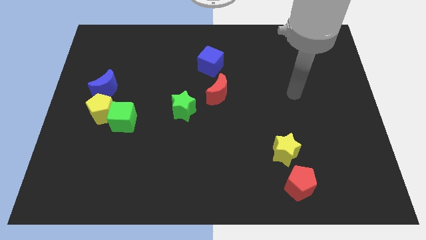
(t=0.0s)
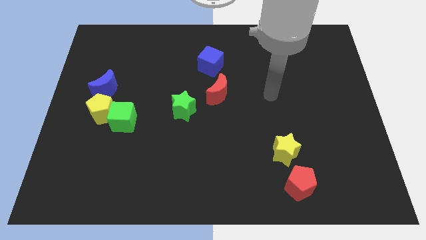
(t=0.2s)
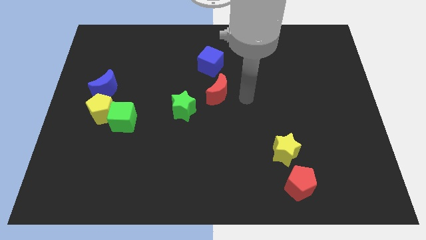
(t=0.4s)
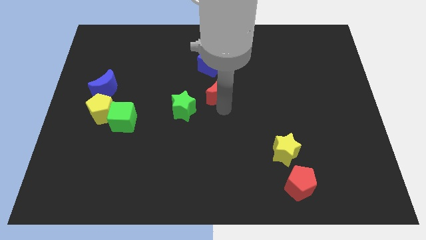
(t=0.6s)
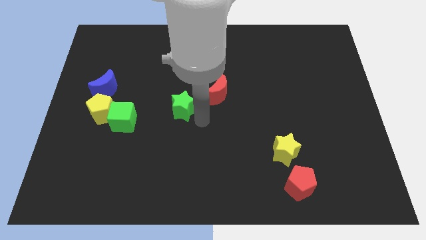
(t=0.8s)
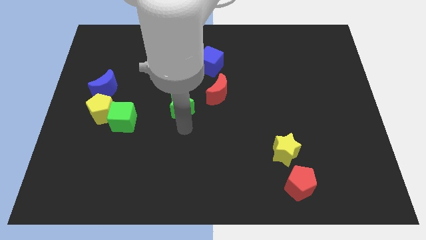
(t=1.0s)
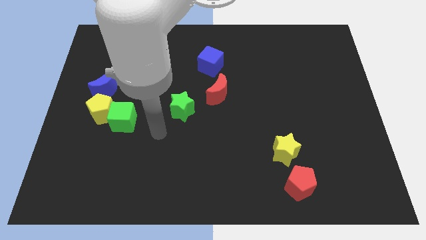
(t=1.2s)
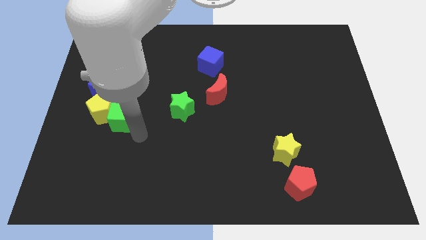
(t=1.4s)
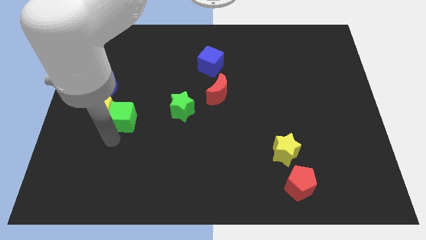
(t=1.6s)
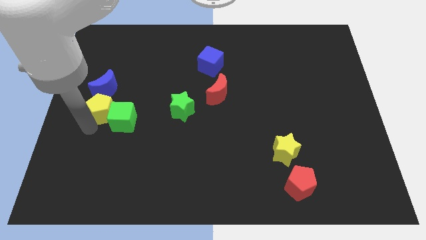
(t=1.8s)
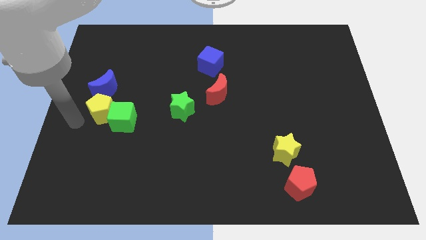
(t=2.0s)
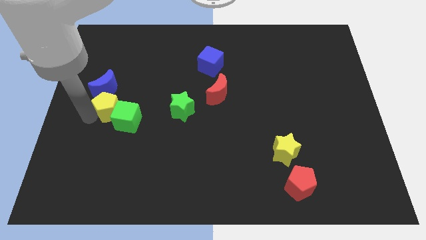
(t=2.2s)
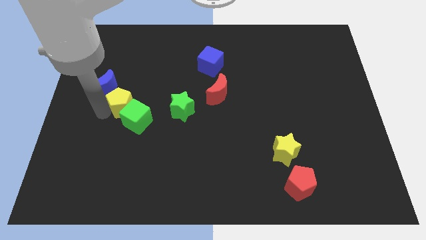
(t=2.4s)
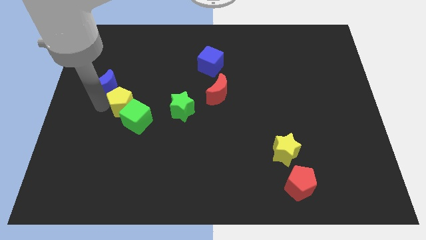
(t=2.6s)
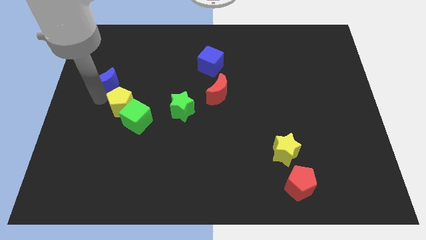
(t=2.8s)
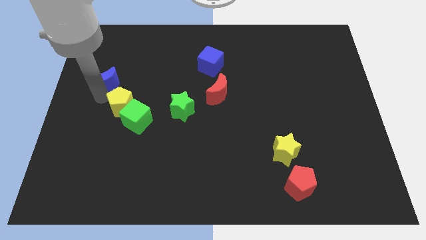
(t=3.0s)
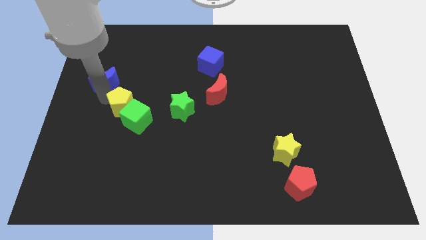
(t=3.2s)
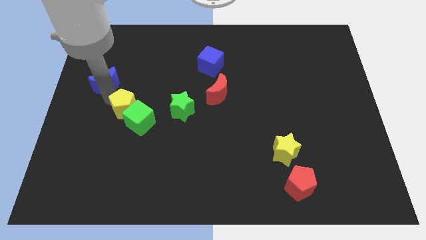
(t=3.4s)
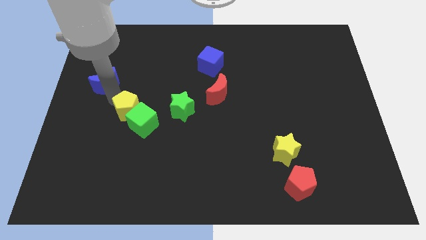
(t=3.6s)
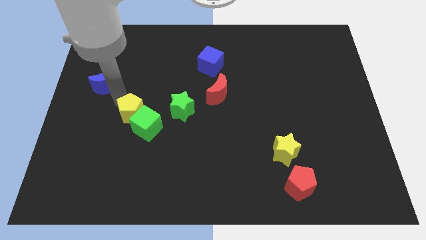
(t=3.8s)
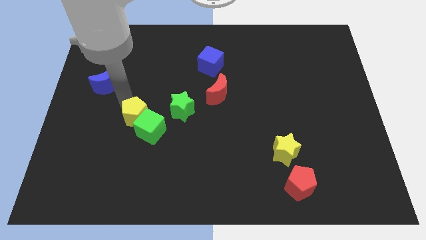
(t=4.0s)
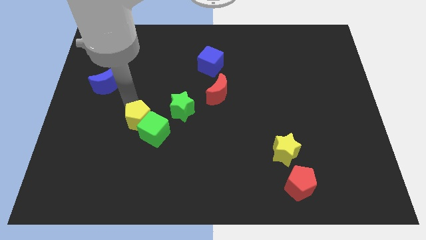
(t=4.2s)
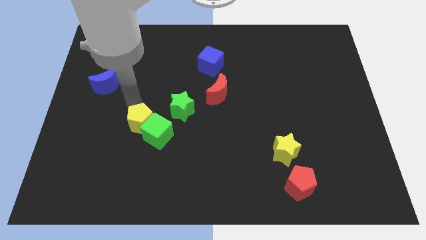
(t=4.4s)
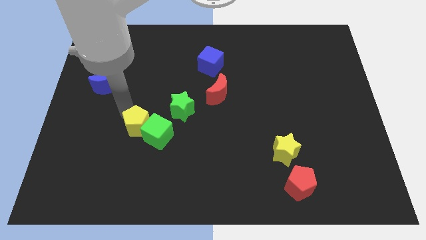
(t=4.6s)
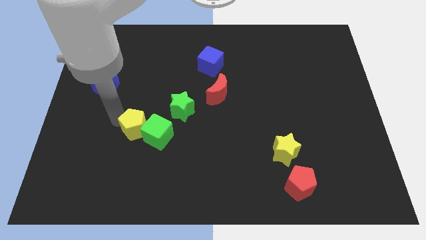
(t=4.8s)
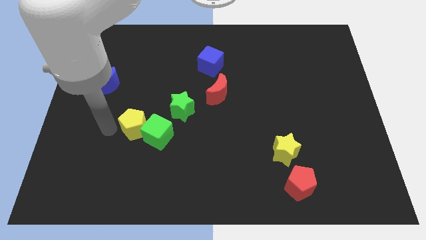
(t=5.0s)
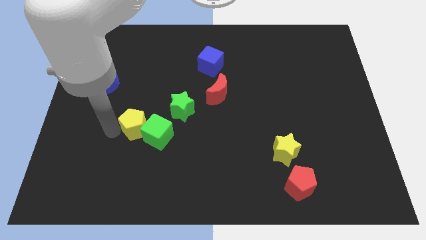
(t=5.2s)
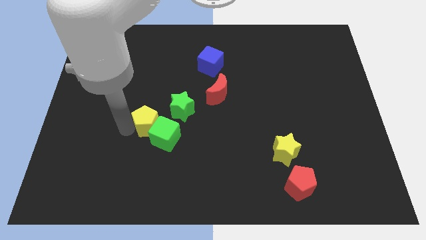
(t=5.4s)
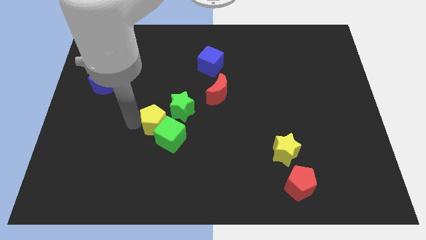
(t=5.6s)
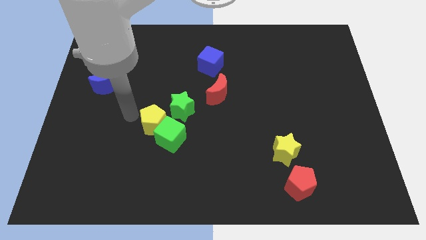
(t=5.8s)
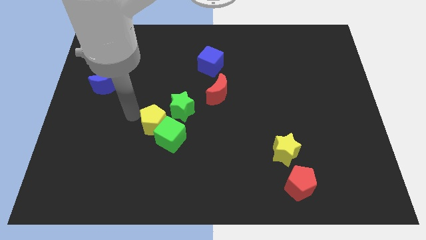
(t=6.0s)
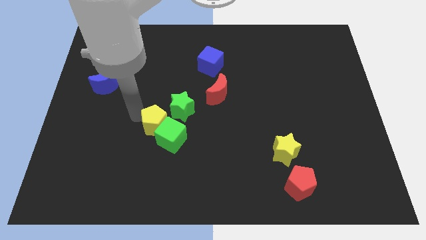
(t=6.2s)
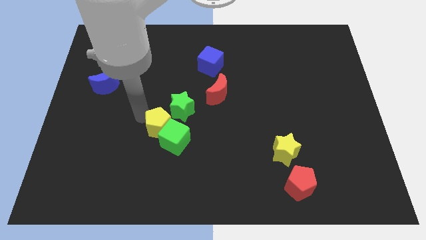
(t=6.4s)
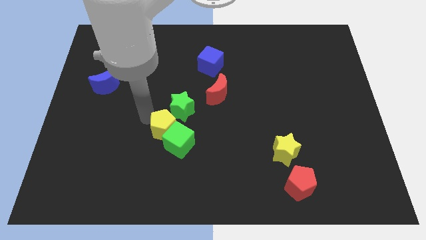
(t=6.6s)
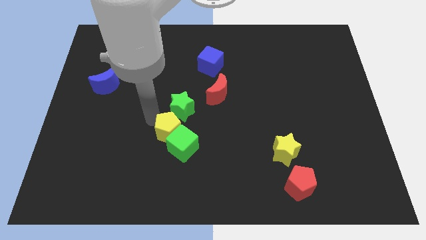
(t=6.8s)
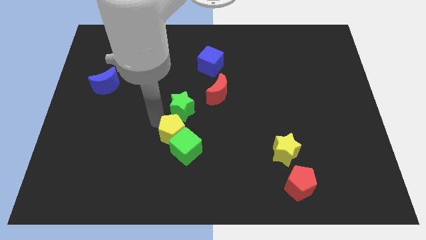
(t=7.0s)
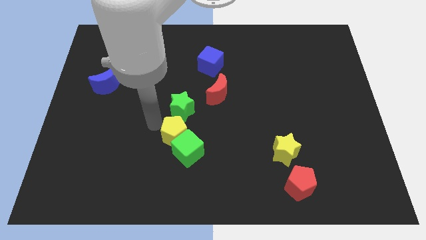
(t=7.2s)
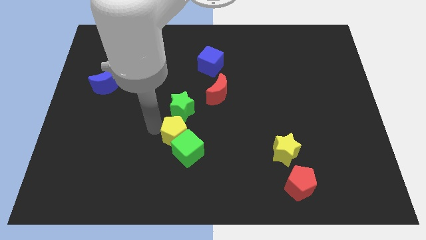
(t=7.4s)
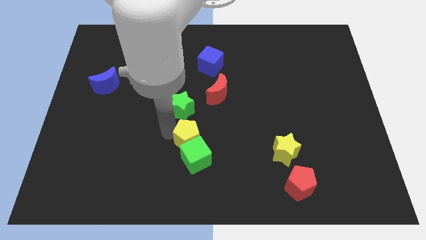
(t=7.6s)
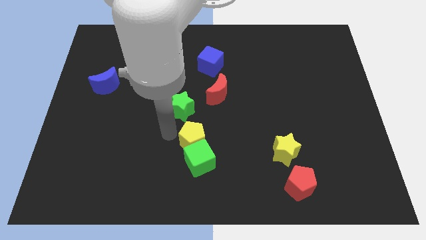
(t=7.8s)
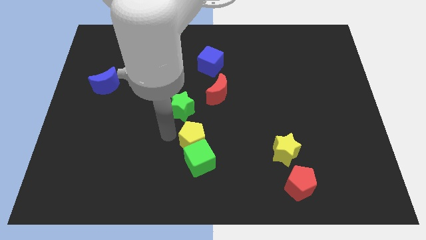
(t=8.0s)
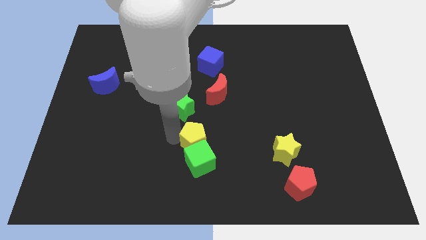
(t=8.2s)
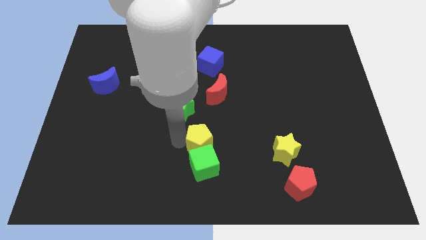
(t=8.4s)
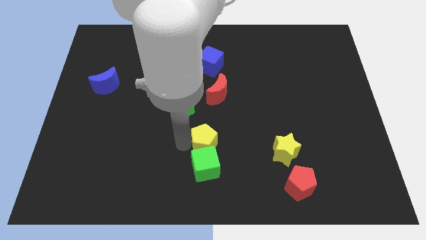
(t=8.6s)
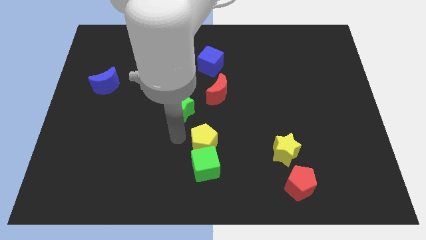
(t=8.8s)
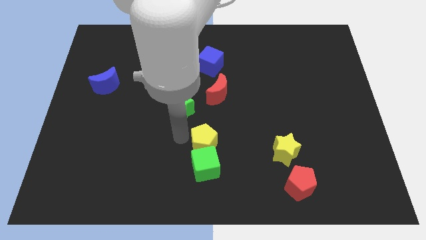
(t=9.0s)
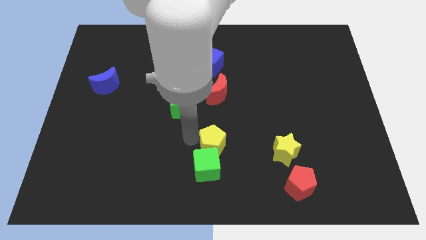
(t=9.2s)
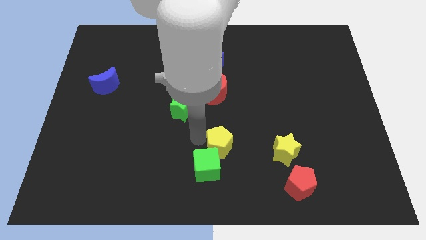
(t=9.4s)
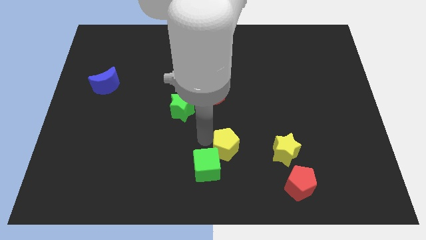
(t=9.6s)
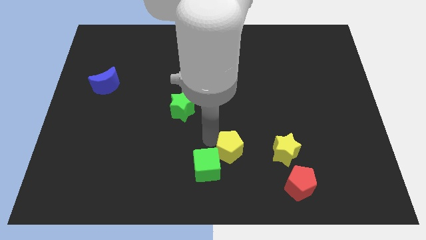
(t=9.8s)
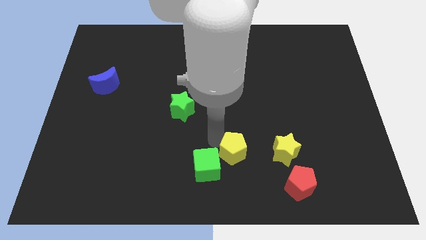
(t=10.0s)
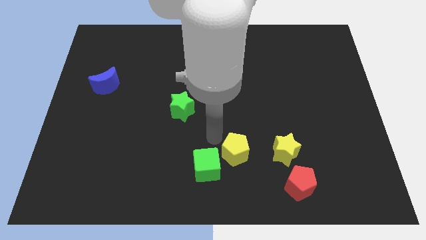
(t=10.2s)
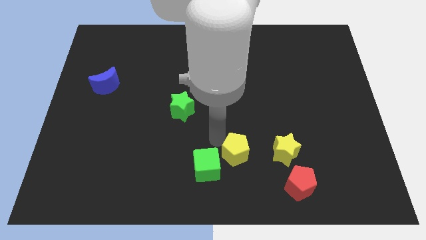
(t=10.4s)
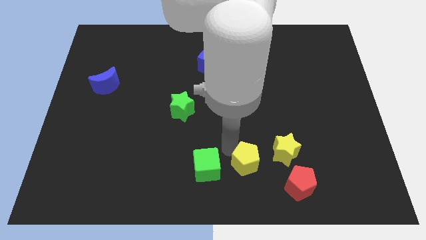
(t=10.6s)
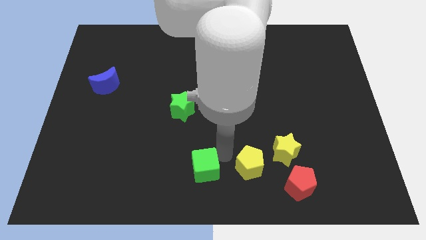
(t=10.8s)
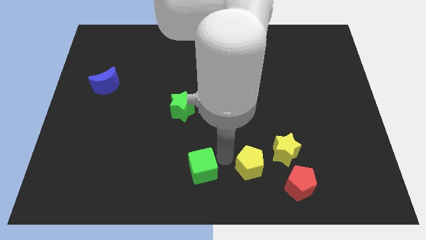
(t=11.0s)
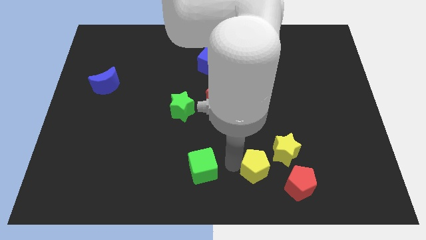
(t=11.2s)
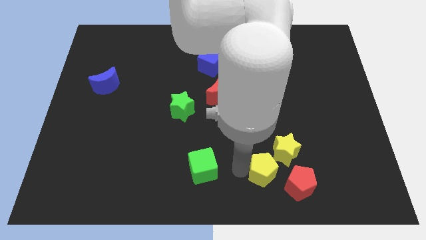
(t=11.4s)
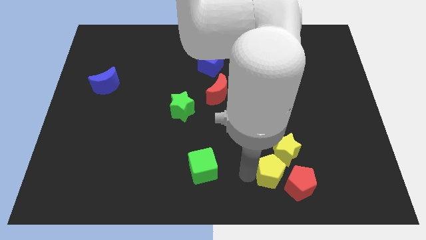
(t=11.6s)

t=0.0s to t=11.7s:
put the yellow pentagon to the red pentagon

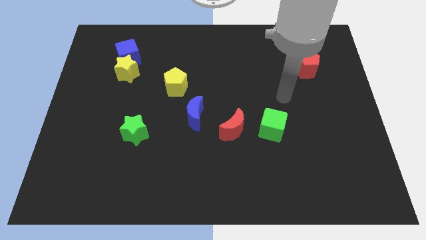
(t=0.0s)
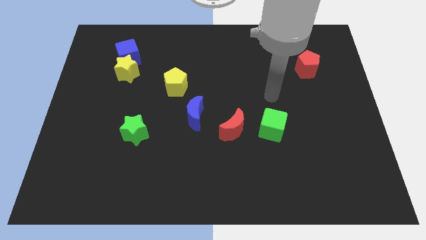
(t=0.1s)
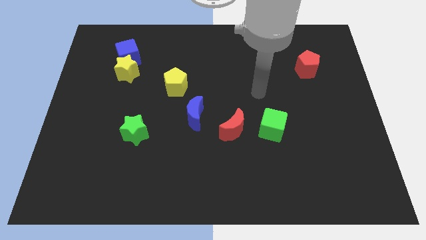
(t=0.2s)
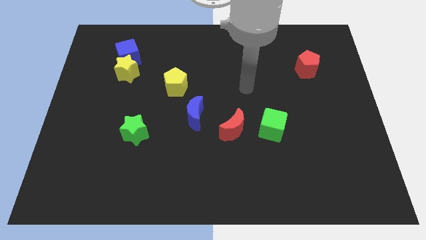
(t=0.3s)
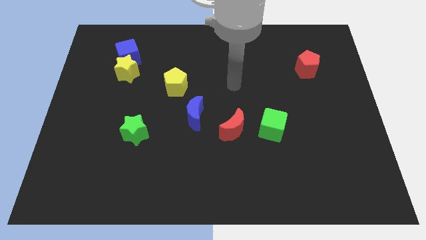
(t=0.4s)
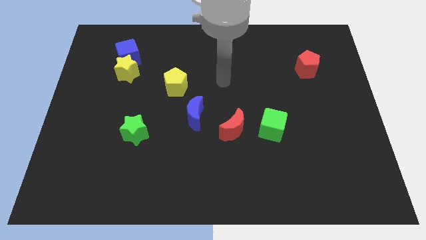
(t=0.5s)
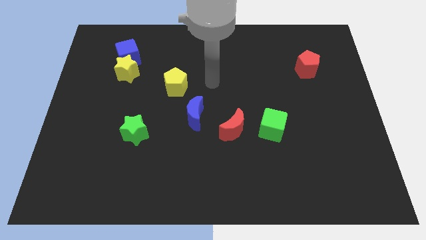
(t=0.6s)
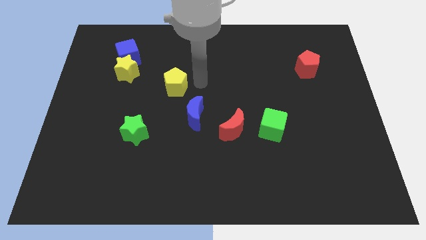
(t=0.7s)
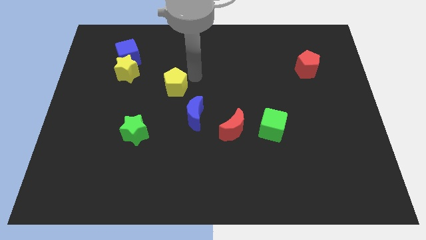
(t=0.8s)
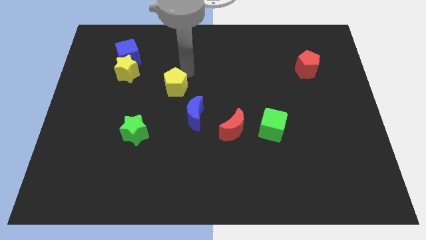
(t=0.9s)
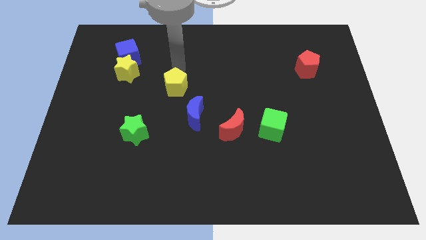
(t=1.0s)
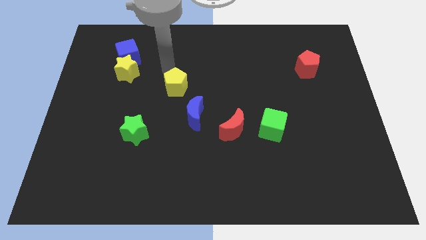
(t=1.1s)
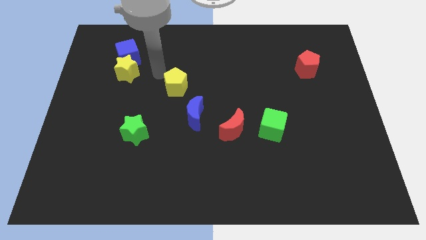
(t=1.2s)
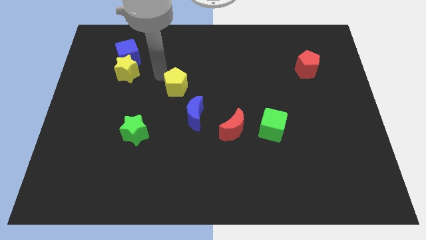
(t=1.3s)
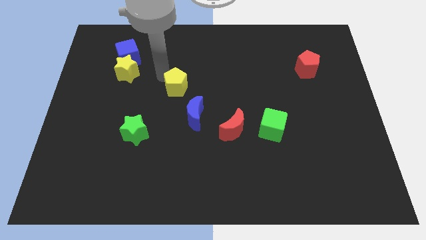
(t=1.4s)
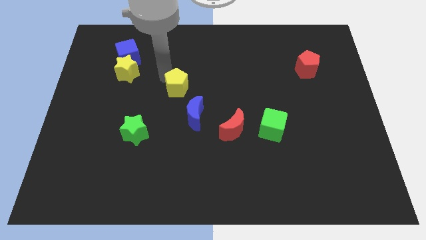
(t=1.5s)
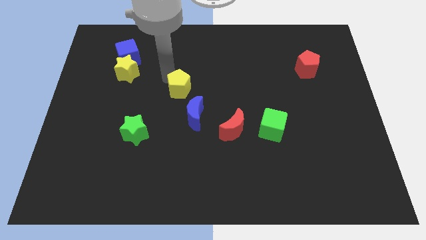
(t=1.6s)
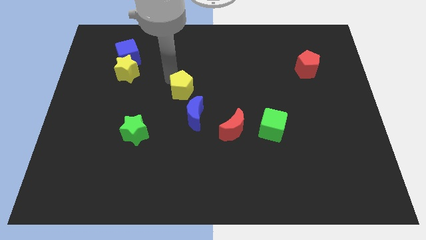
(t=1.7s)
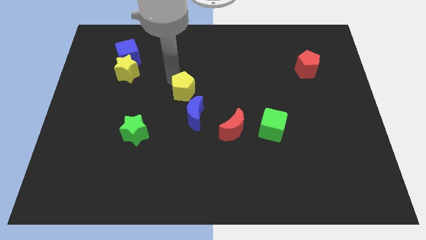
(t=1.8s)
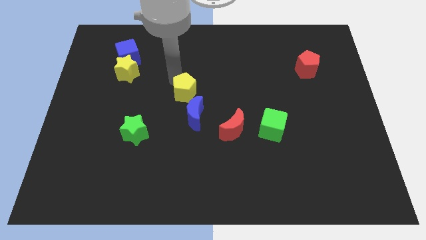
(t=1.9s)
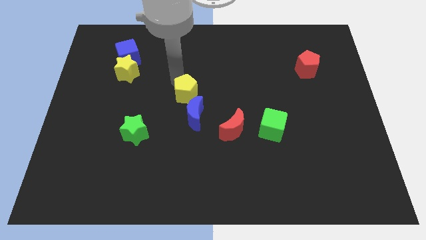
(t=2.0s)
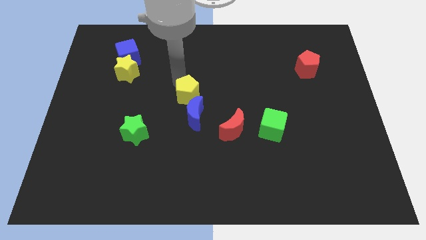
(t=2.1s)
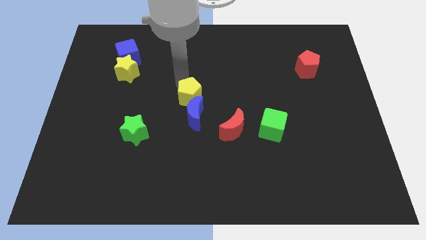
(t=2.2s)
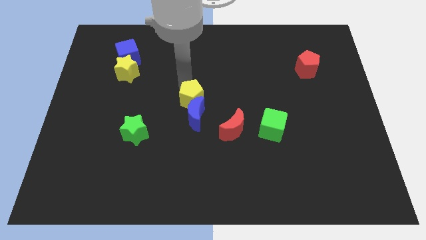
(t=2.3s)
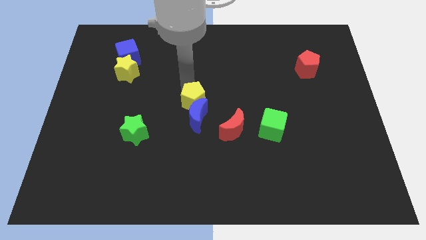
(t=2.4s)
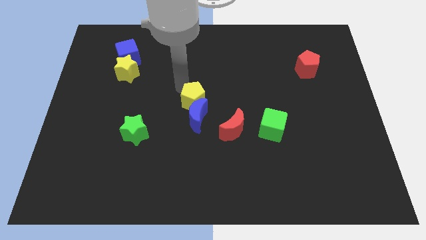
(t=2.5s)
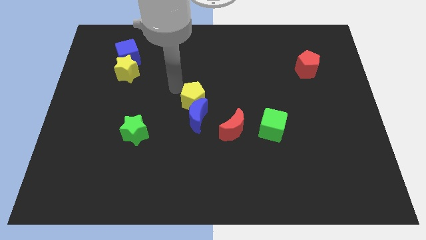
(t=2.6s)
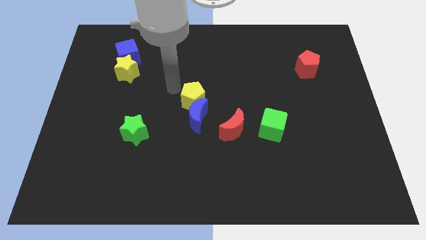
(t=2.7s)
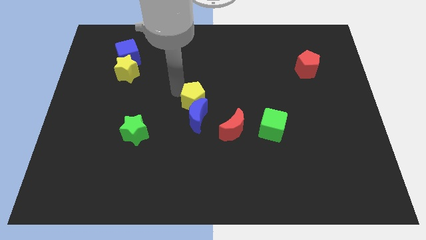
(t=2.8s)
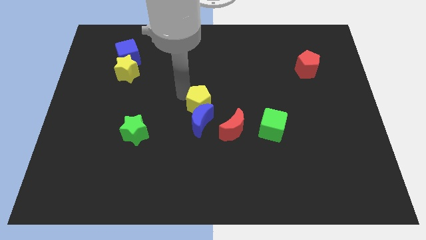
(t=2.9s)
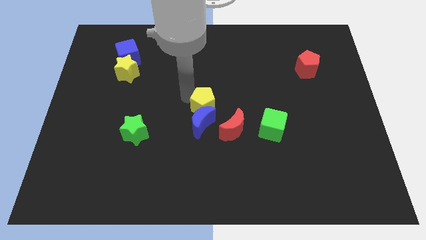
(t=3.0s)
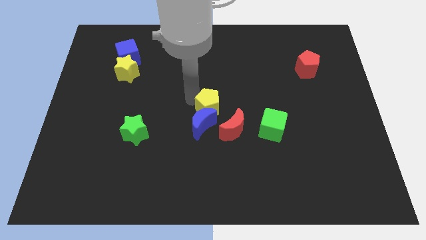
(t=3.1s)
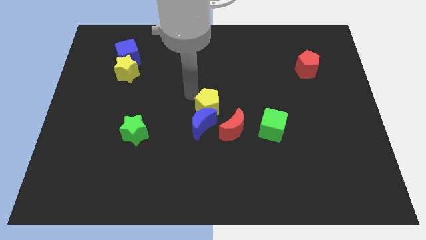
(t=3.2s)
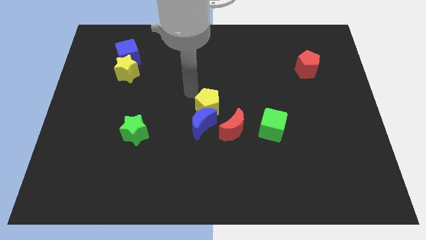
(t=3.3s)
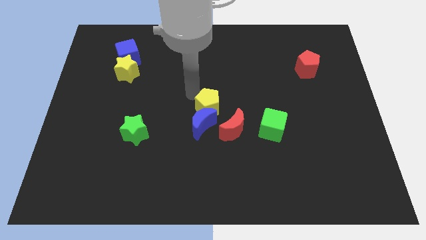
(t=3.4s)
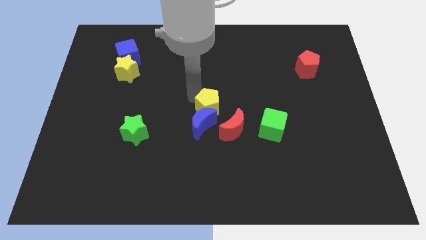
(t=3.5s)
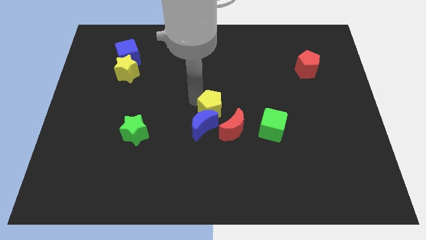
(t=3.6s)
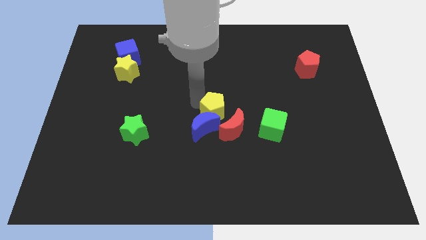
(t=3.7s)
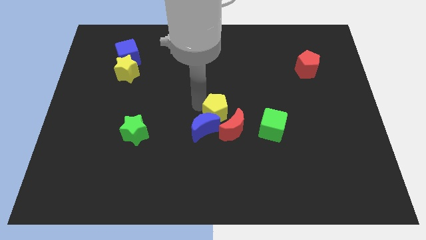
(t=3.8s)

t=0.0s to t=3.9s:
put the yellow pentagon next to the red moon
